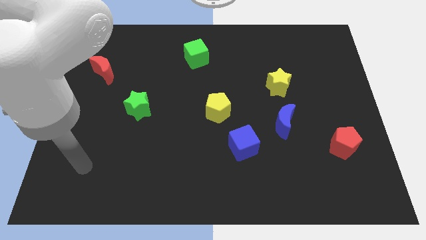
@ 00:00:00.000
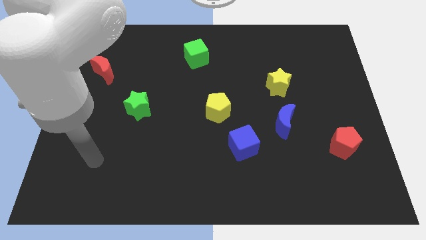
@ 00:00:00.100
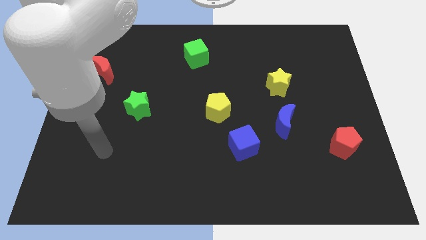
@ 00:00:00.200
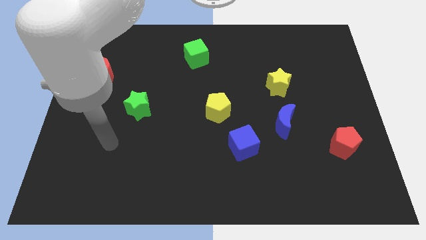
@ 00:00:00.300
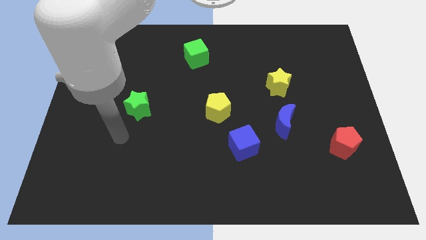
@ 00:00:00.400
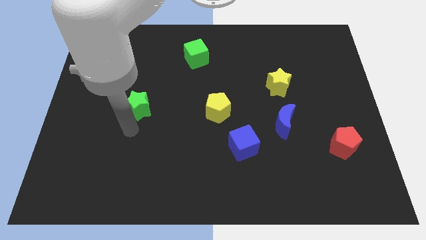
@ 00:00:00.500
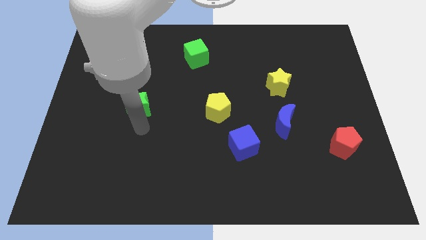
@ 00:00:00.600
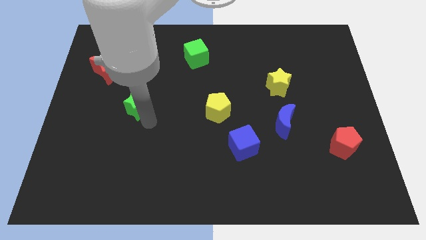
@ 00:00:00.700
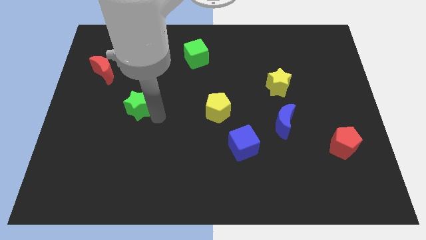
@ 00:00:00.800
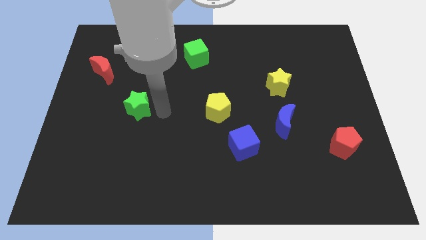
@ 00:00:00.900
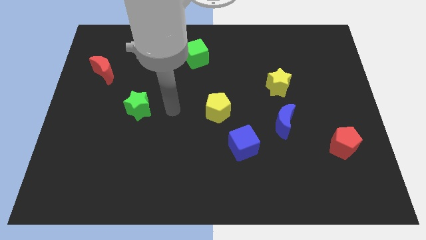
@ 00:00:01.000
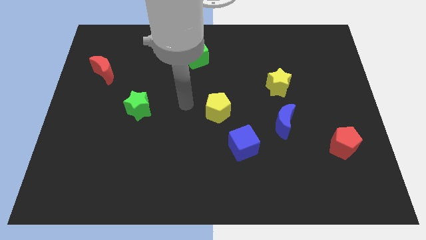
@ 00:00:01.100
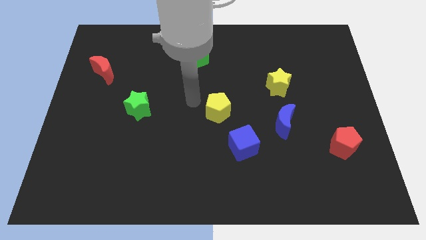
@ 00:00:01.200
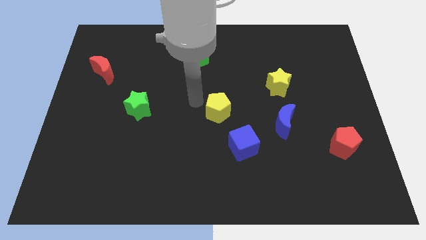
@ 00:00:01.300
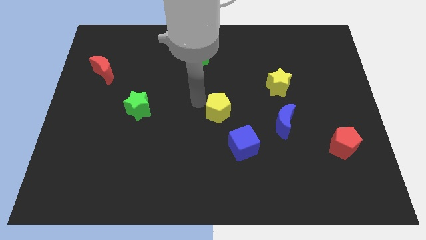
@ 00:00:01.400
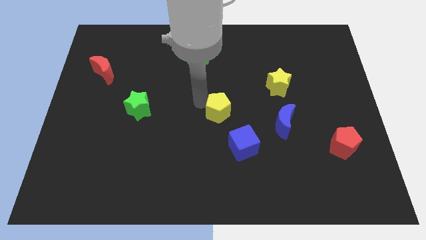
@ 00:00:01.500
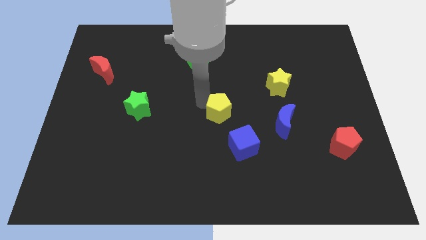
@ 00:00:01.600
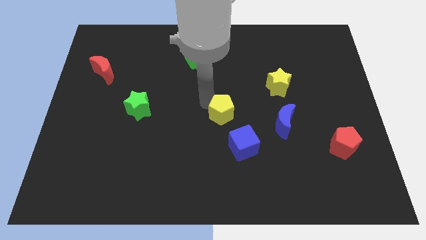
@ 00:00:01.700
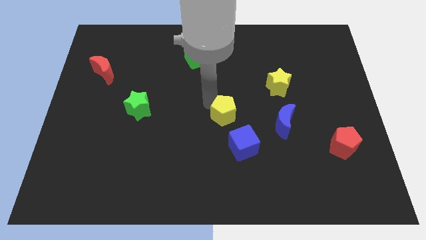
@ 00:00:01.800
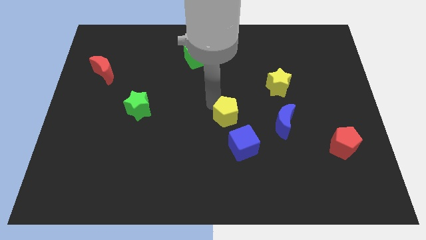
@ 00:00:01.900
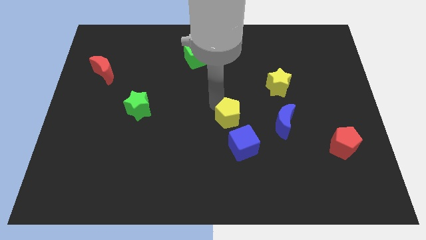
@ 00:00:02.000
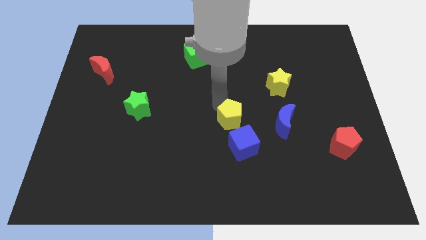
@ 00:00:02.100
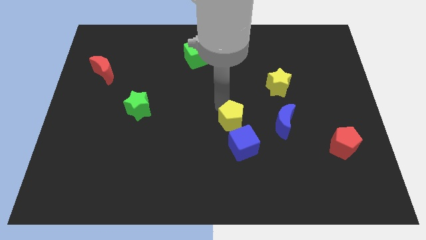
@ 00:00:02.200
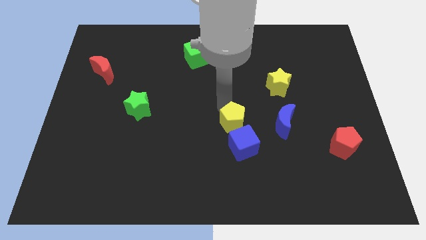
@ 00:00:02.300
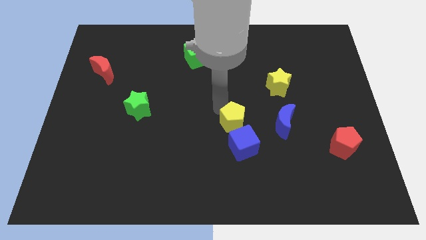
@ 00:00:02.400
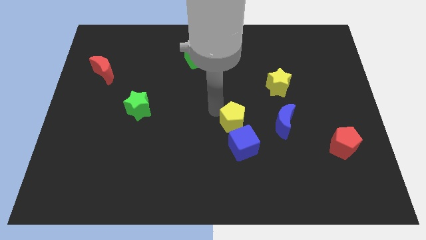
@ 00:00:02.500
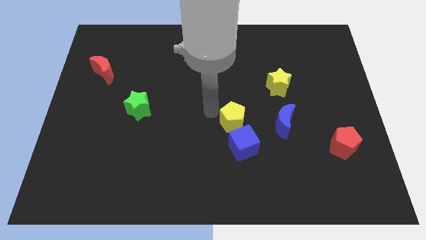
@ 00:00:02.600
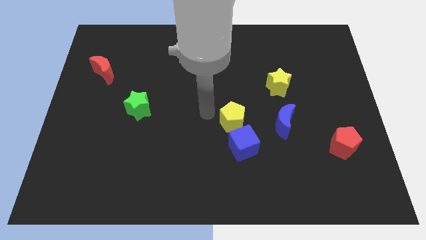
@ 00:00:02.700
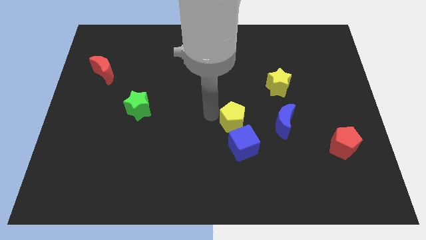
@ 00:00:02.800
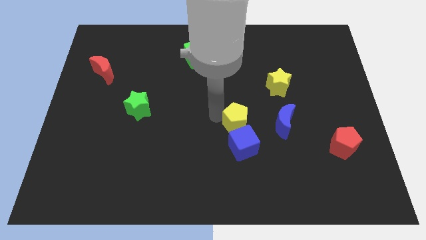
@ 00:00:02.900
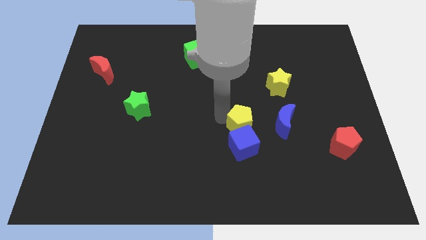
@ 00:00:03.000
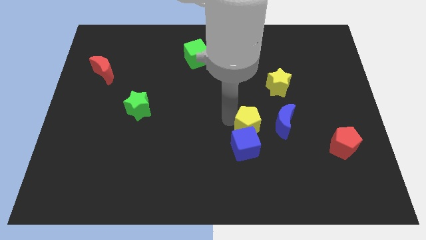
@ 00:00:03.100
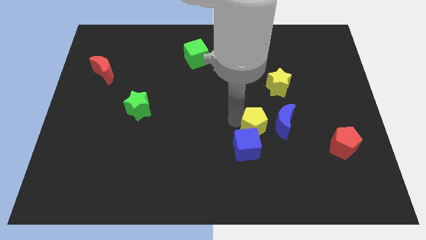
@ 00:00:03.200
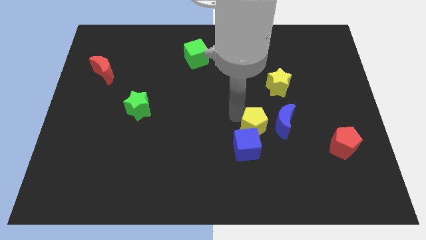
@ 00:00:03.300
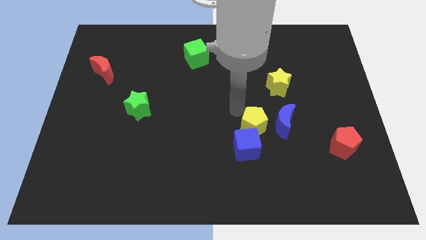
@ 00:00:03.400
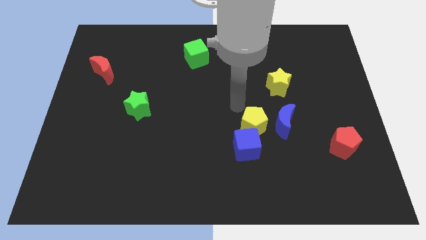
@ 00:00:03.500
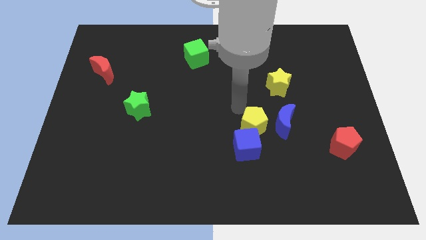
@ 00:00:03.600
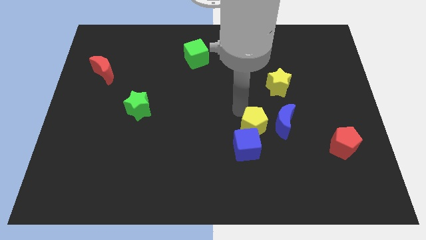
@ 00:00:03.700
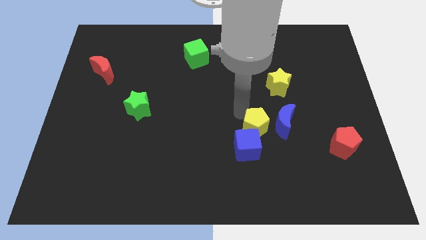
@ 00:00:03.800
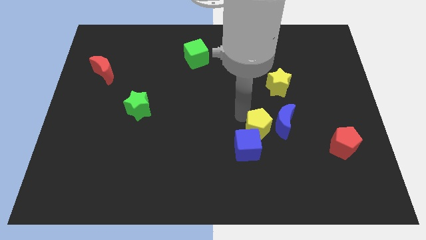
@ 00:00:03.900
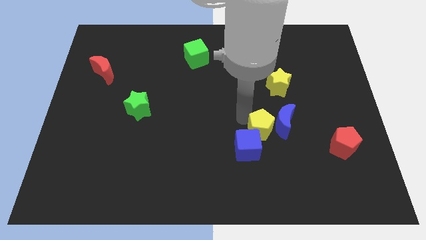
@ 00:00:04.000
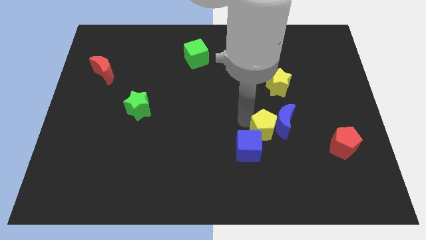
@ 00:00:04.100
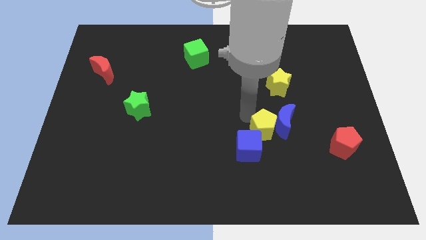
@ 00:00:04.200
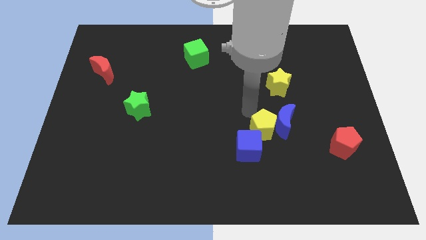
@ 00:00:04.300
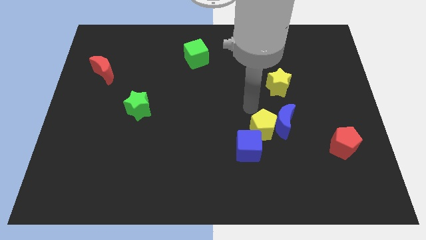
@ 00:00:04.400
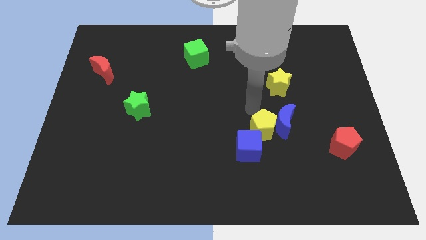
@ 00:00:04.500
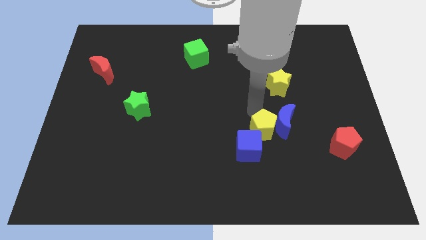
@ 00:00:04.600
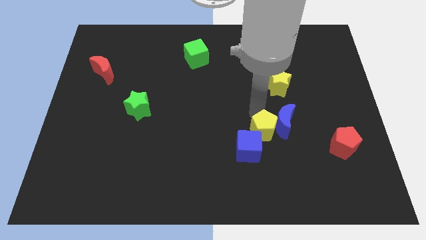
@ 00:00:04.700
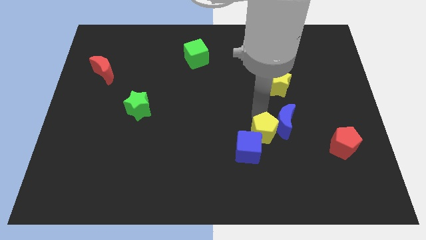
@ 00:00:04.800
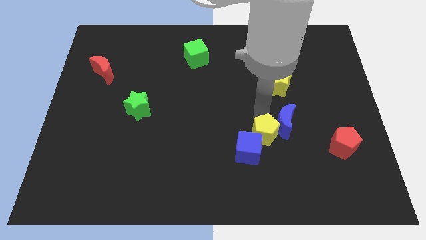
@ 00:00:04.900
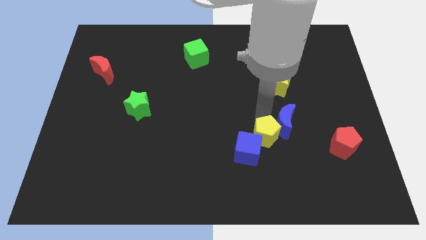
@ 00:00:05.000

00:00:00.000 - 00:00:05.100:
slide the yellow pentagon to the bottom of the blue moon

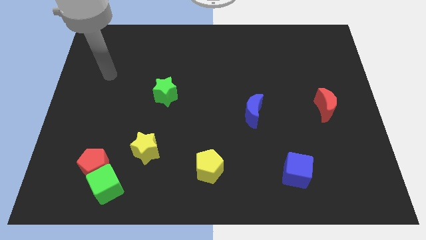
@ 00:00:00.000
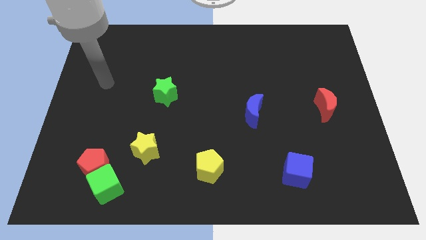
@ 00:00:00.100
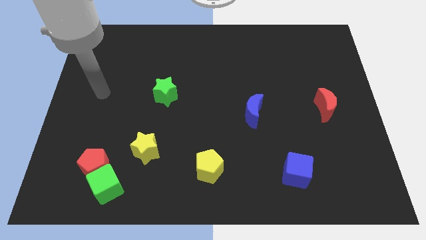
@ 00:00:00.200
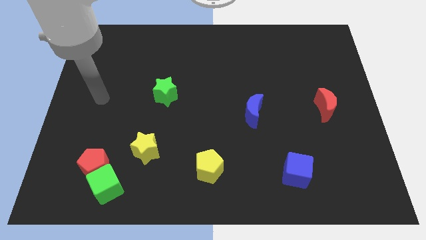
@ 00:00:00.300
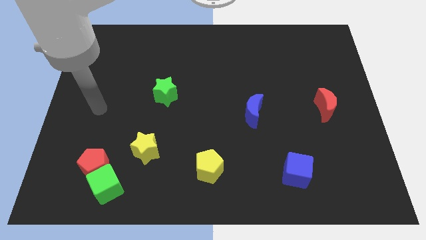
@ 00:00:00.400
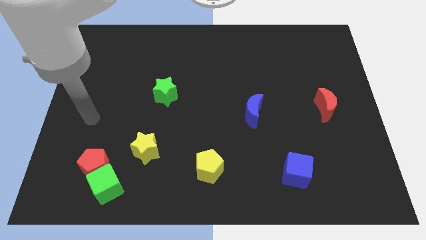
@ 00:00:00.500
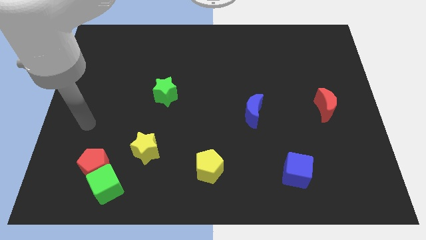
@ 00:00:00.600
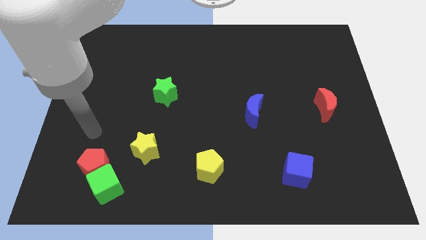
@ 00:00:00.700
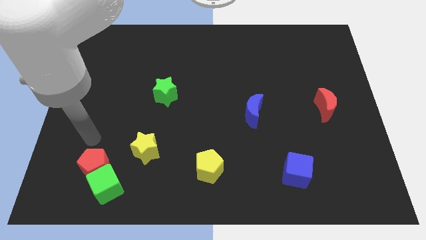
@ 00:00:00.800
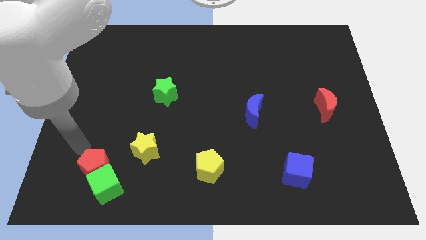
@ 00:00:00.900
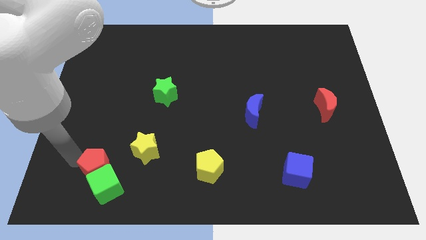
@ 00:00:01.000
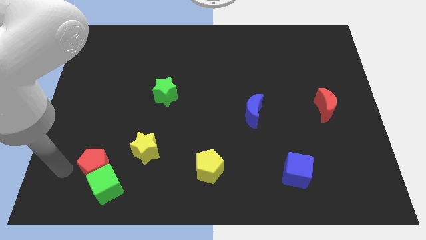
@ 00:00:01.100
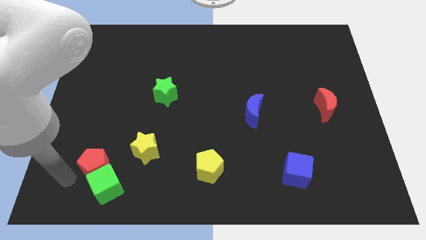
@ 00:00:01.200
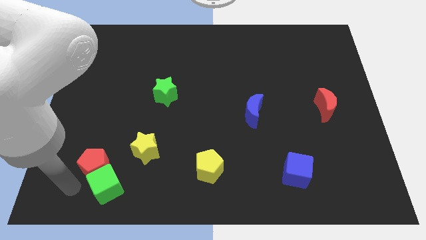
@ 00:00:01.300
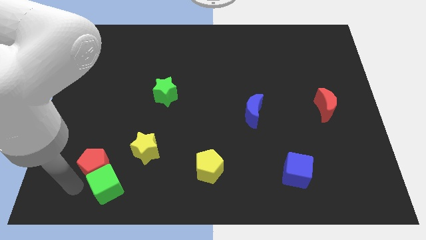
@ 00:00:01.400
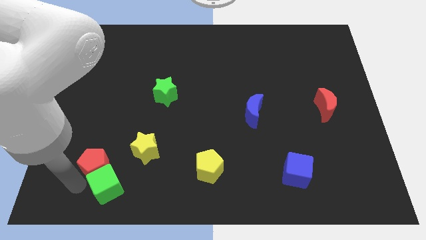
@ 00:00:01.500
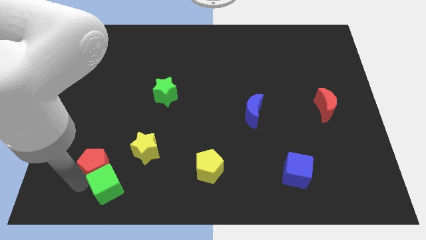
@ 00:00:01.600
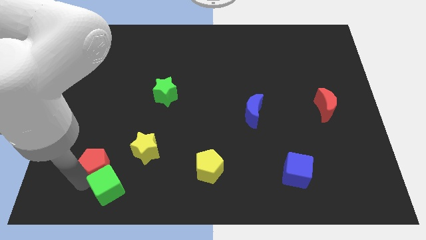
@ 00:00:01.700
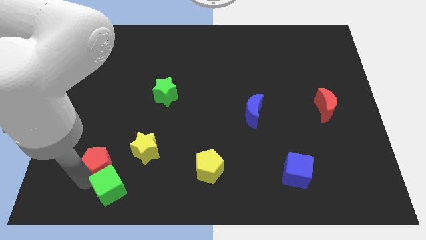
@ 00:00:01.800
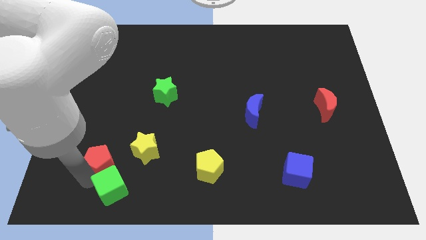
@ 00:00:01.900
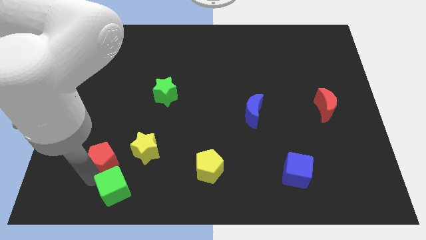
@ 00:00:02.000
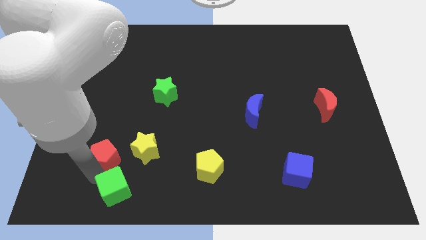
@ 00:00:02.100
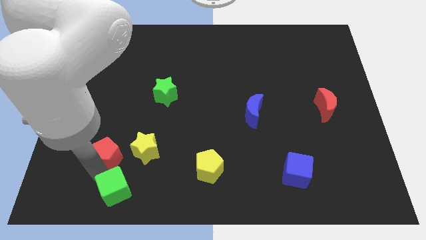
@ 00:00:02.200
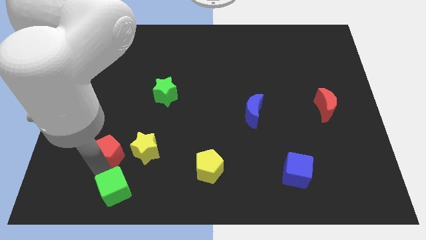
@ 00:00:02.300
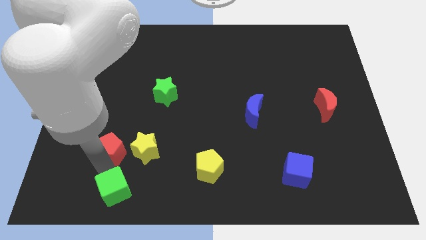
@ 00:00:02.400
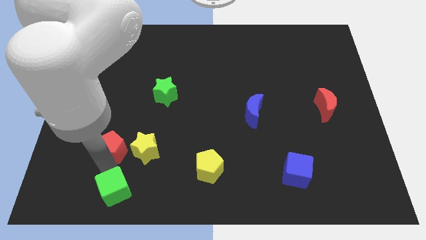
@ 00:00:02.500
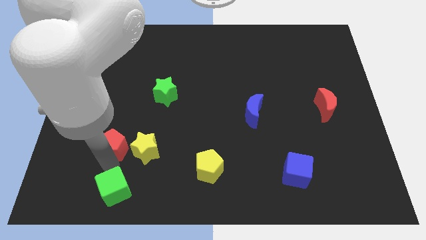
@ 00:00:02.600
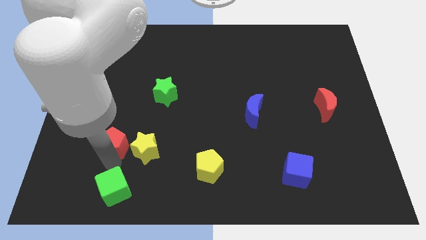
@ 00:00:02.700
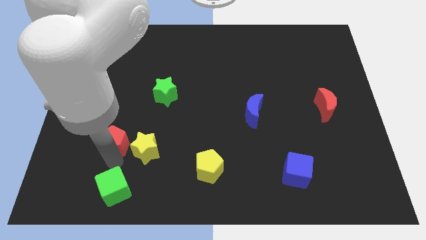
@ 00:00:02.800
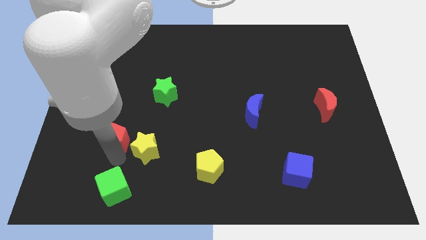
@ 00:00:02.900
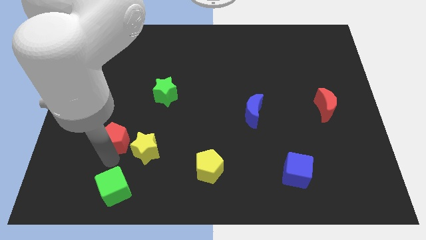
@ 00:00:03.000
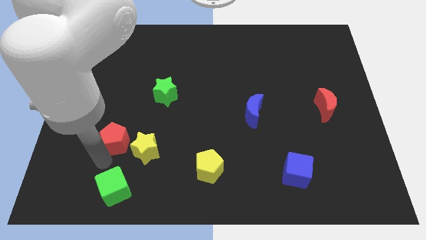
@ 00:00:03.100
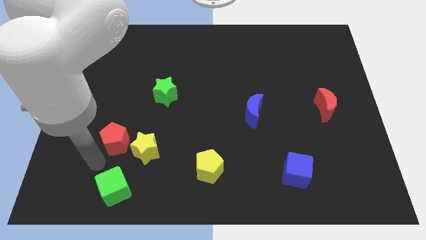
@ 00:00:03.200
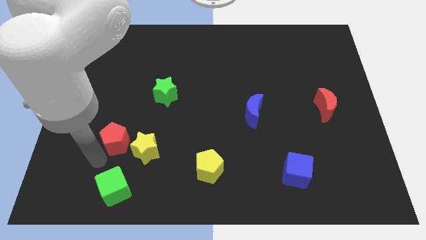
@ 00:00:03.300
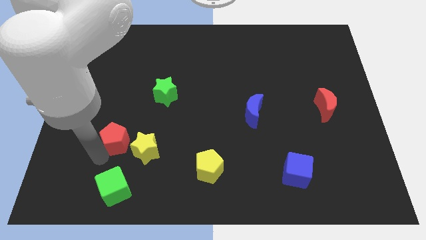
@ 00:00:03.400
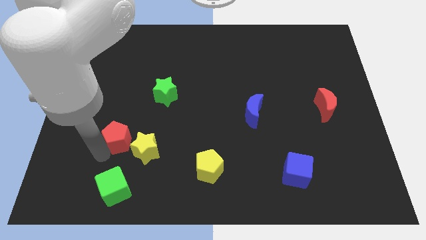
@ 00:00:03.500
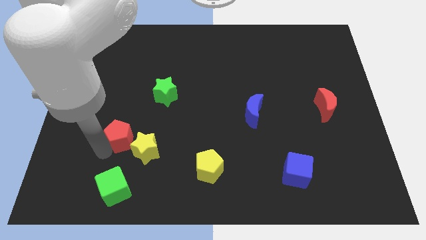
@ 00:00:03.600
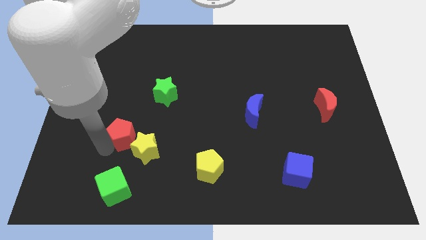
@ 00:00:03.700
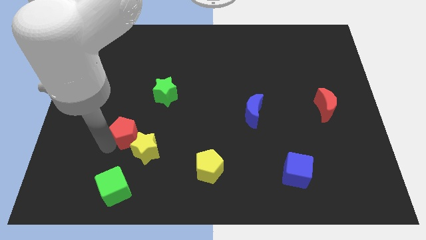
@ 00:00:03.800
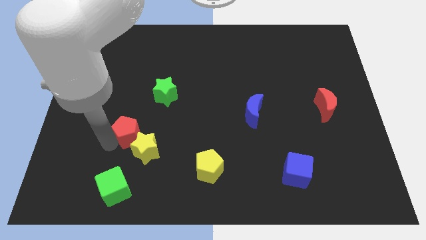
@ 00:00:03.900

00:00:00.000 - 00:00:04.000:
move the red pentagon to the top side of the yellow star
